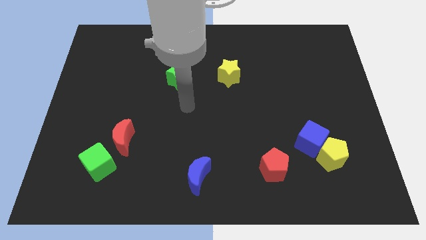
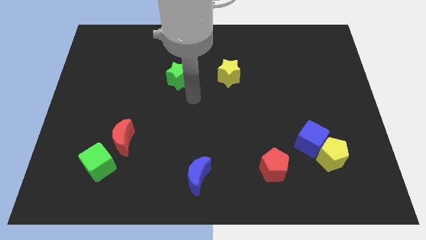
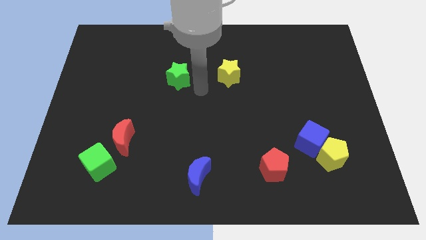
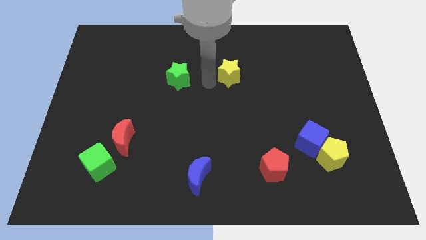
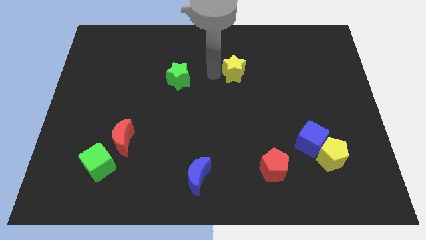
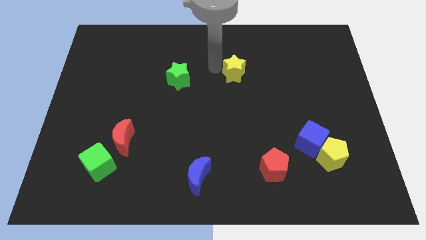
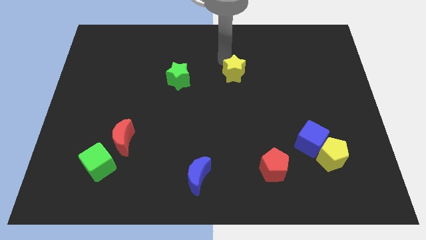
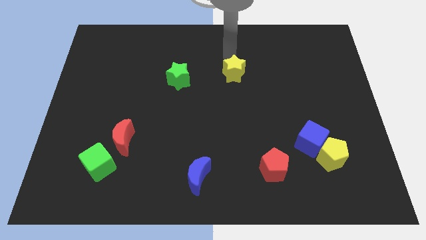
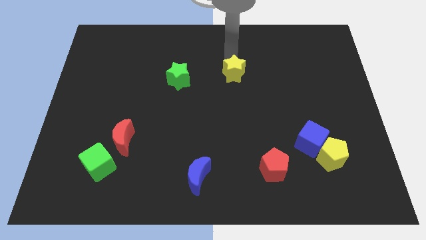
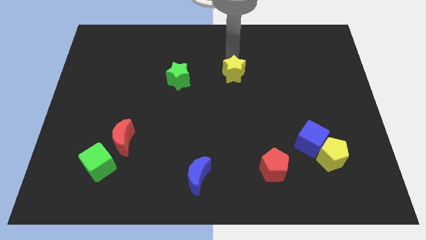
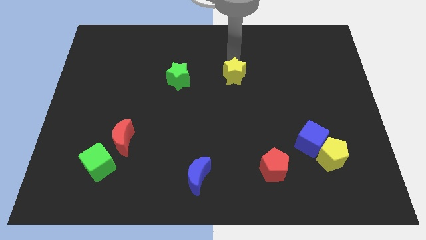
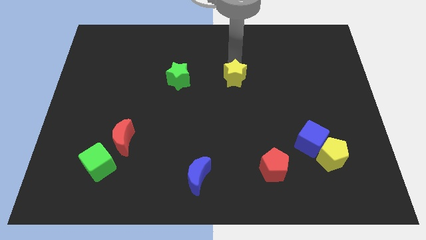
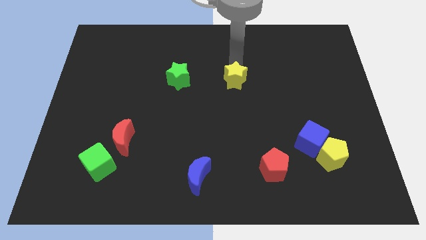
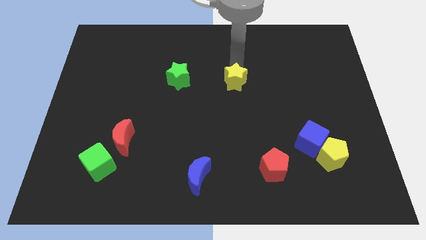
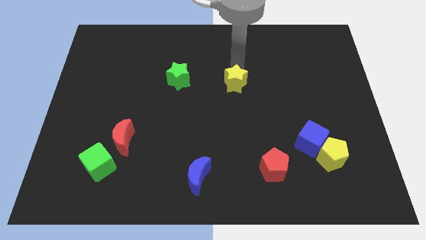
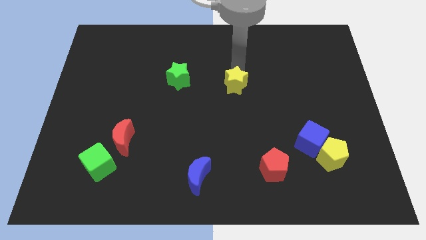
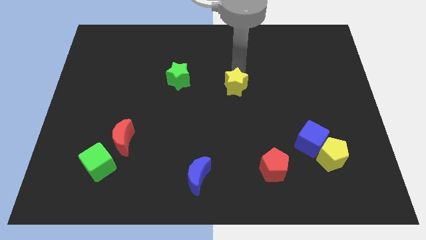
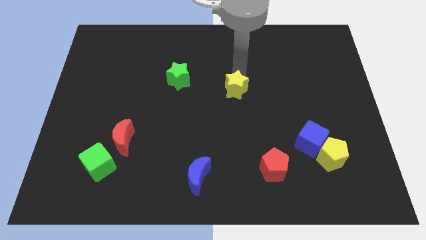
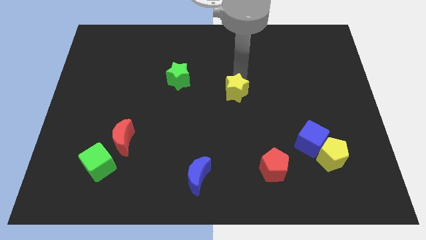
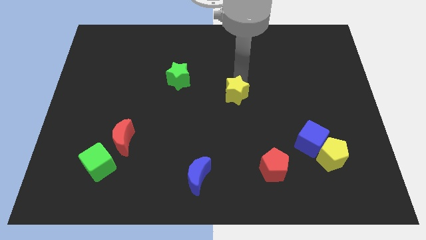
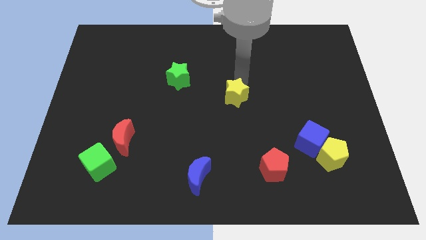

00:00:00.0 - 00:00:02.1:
slide the yellow star down slightly

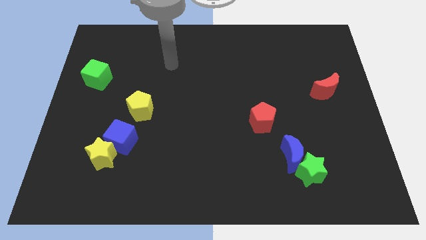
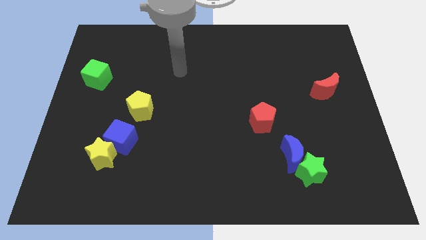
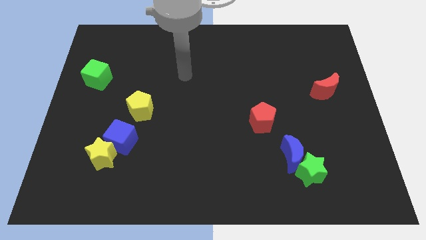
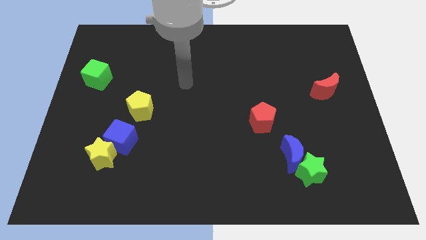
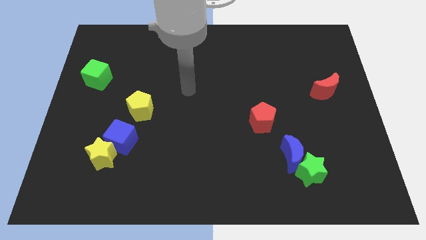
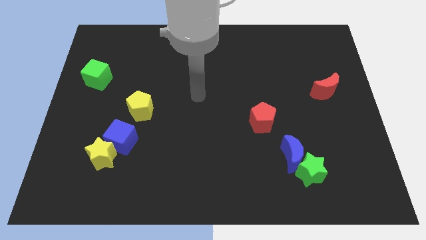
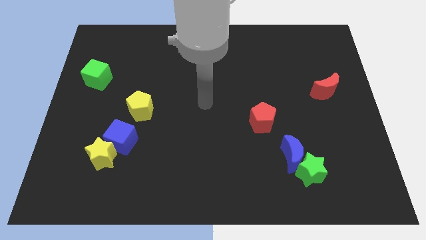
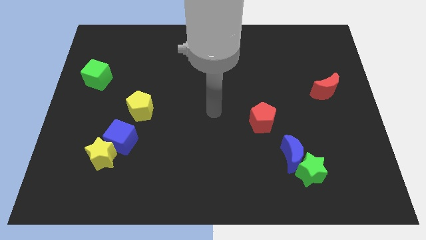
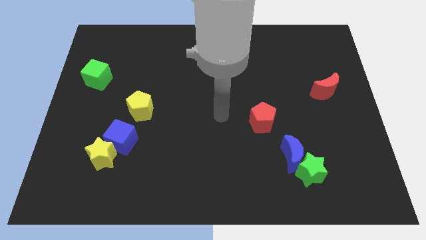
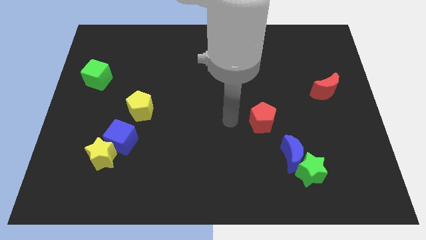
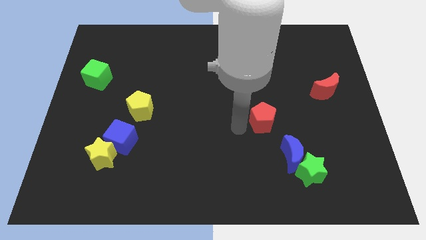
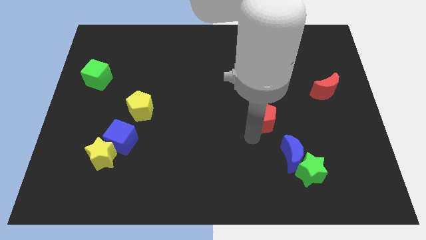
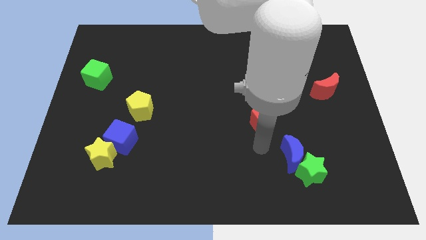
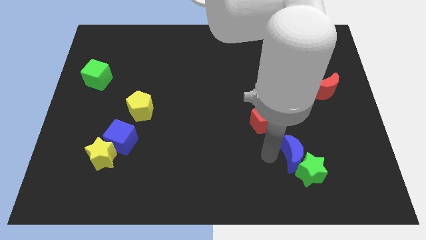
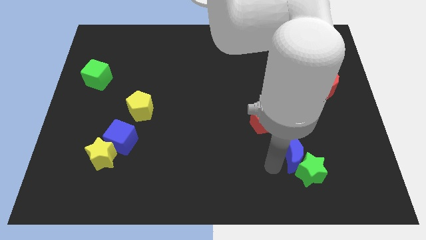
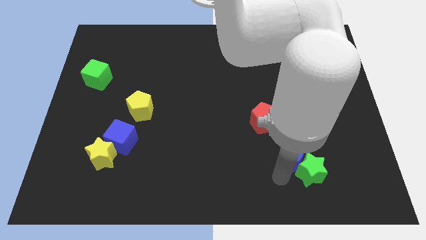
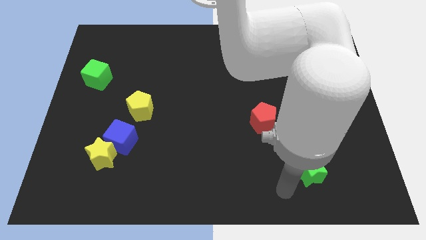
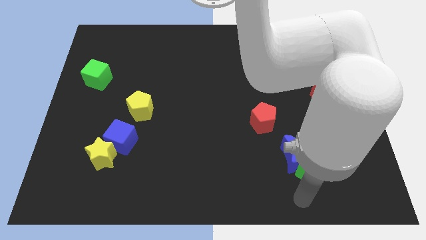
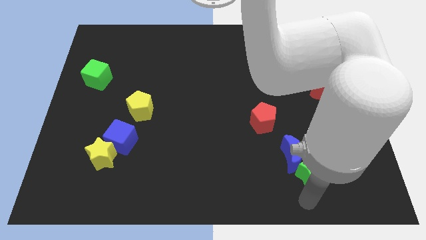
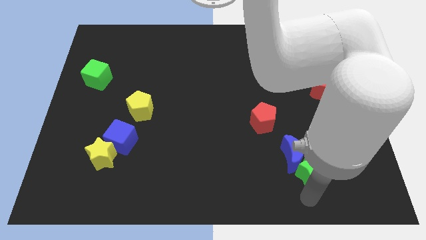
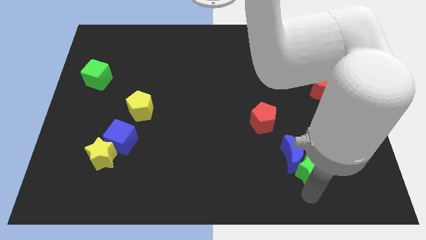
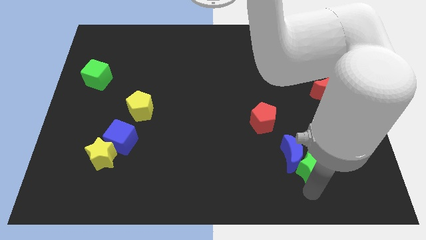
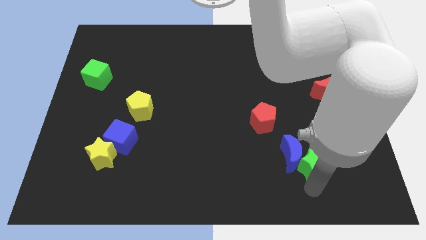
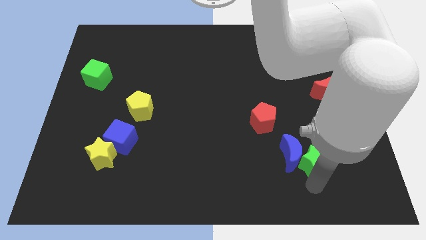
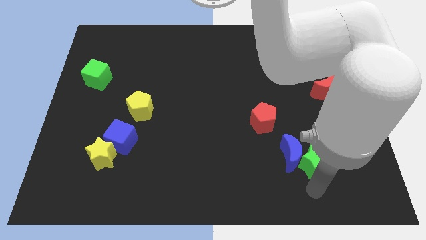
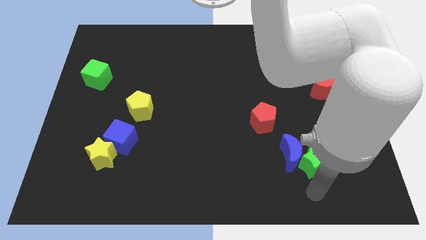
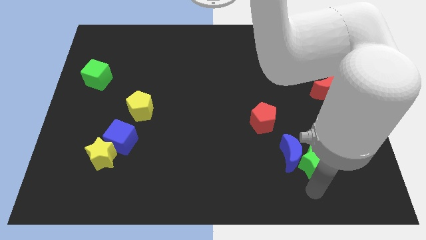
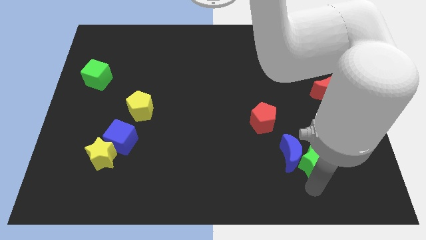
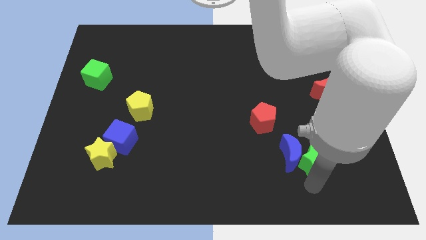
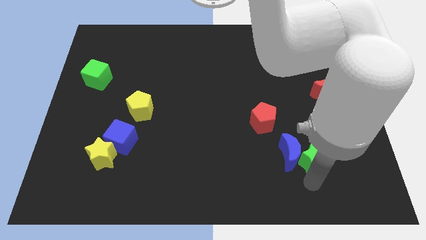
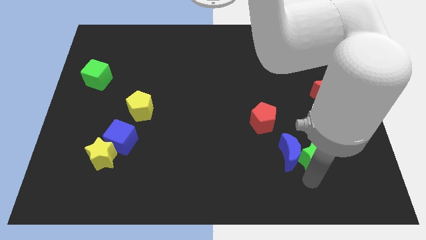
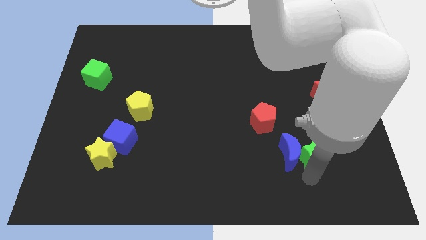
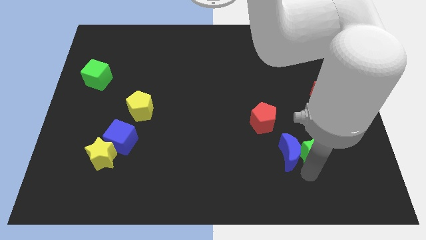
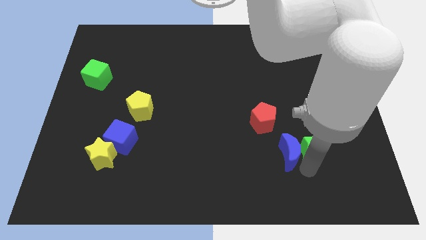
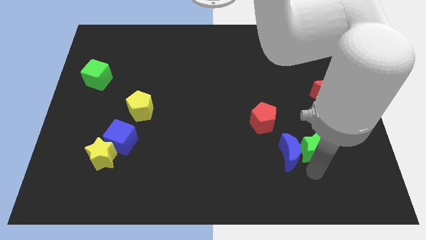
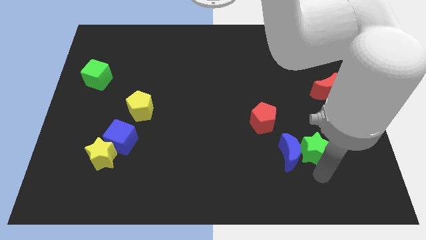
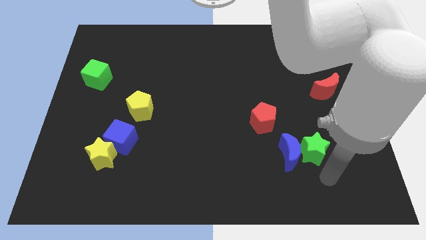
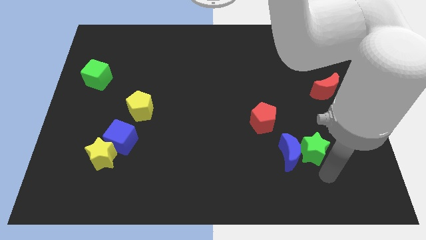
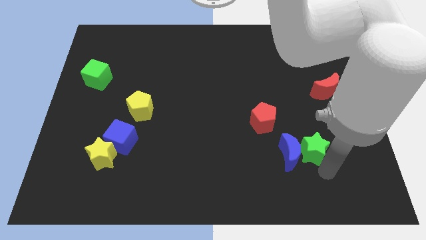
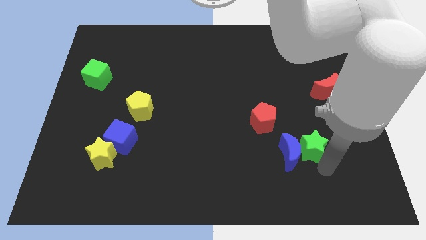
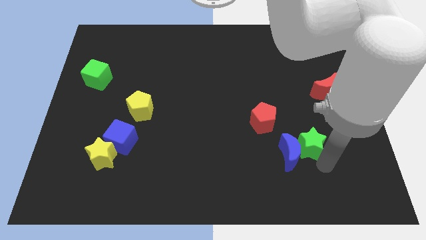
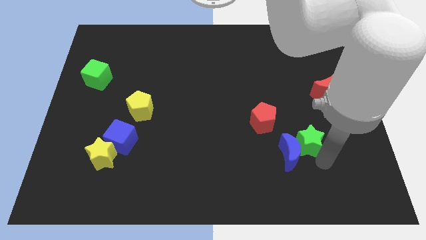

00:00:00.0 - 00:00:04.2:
move the green star somewhat upwards

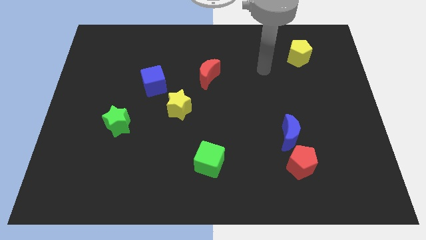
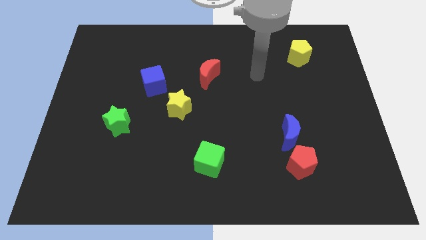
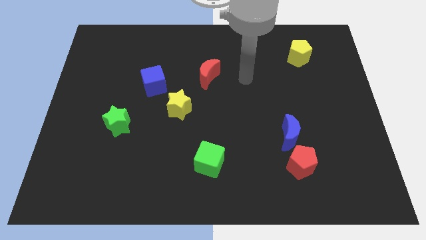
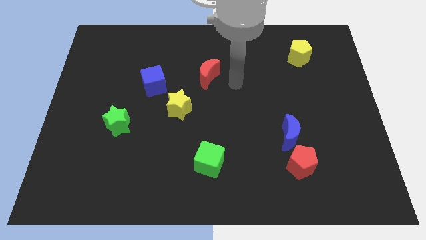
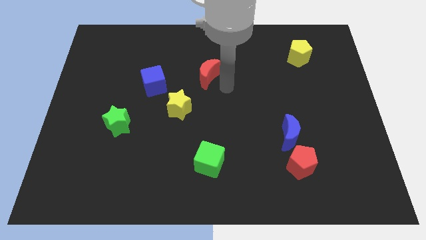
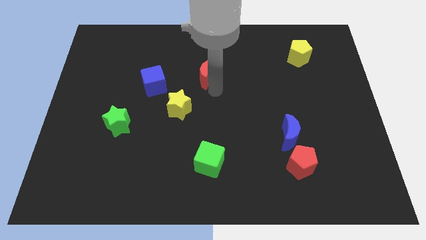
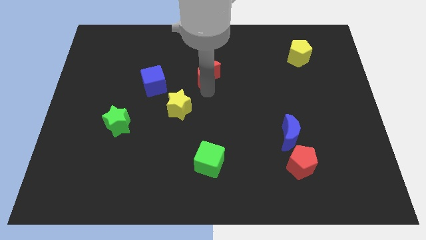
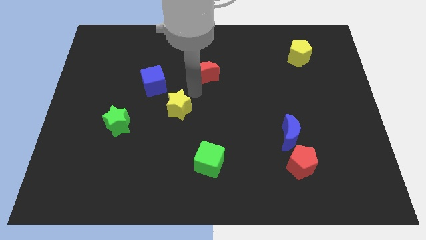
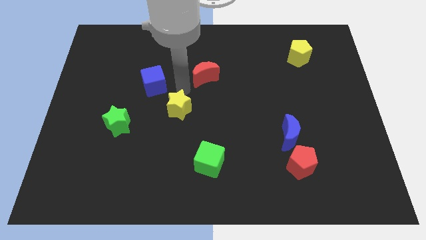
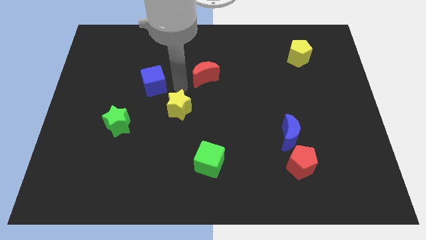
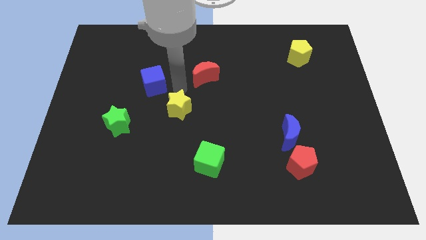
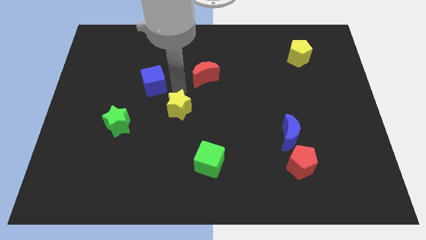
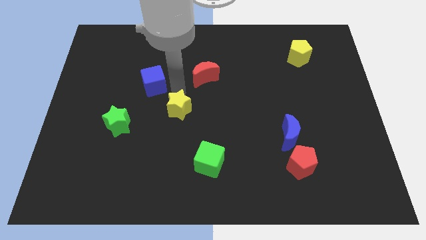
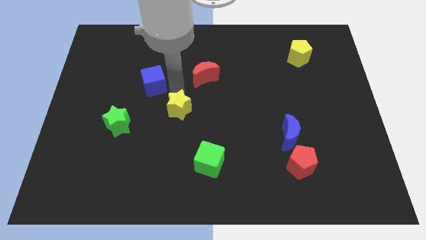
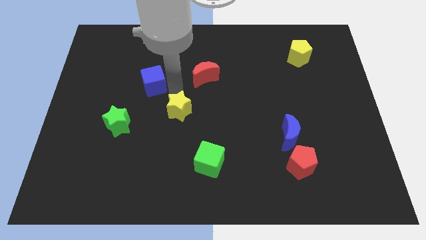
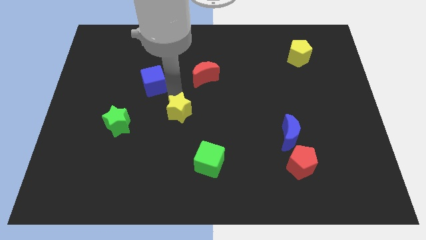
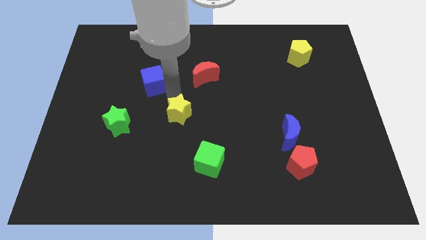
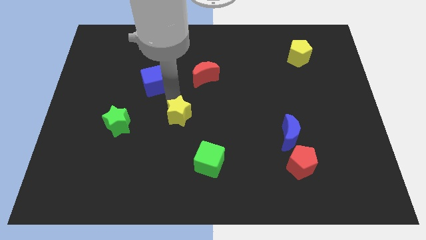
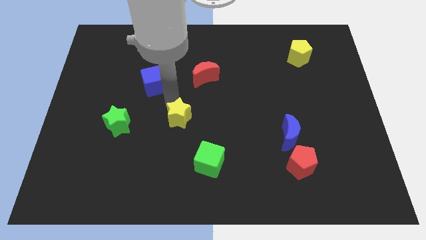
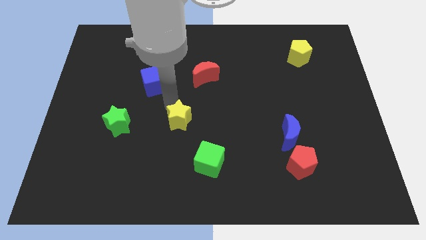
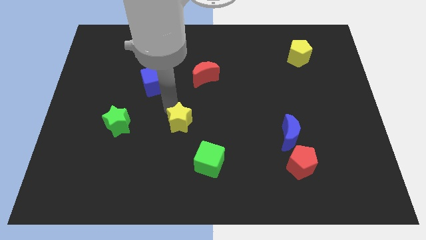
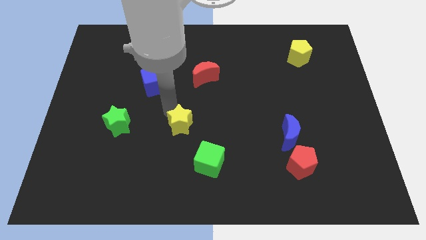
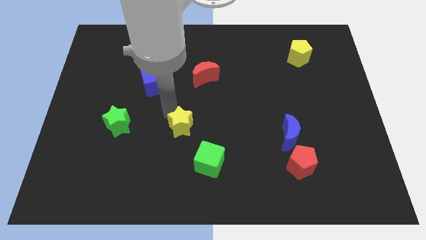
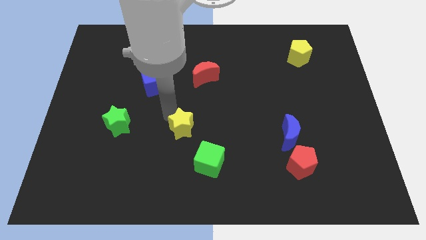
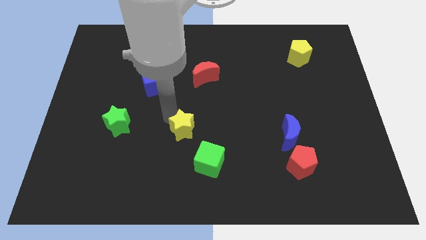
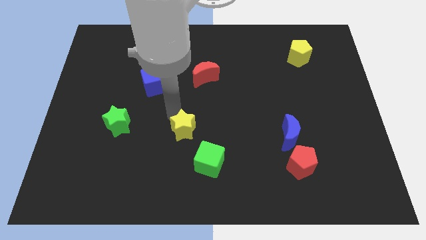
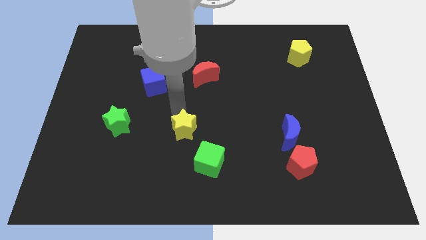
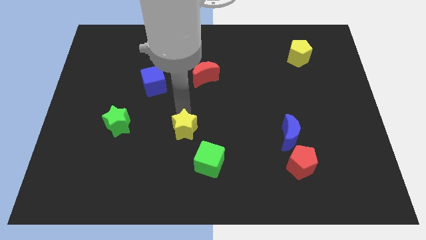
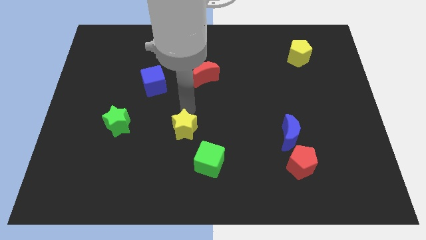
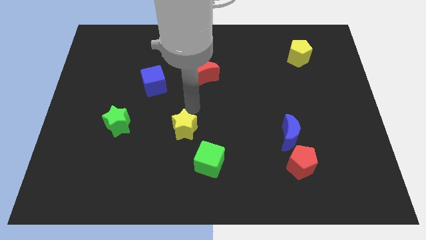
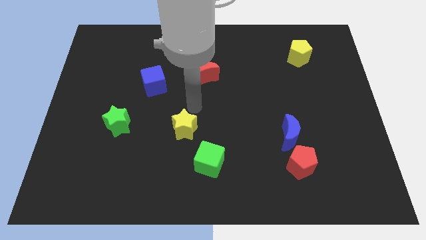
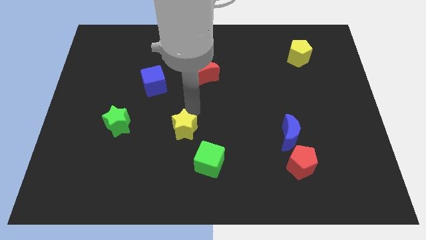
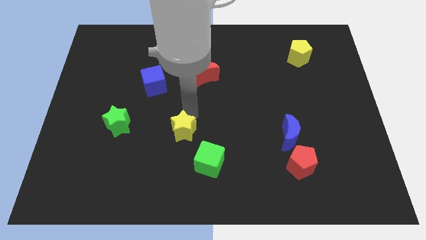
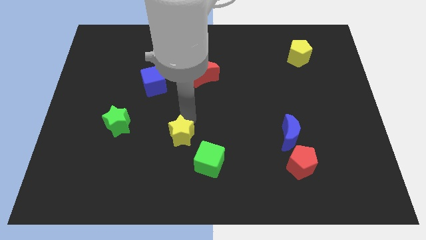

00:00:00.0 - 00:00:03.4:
slightly move the yellow star downwards
